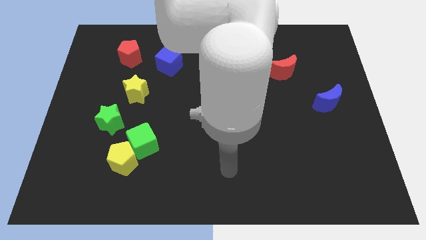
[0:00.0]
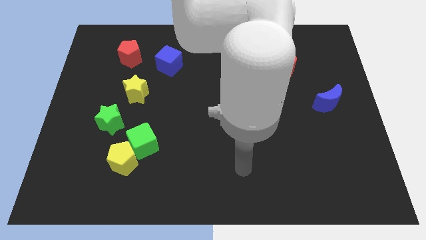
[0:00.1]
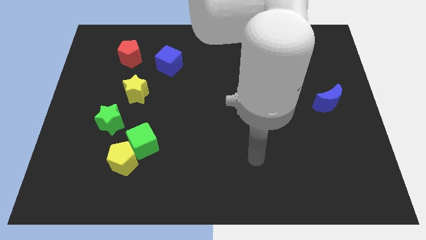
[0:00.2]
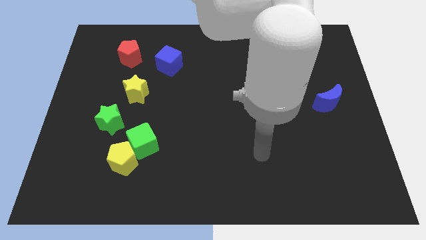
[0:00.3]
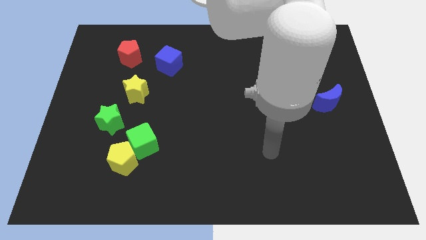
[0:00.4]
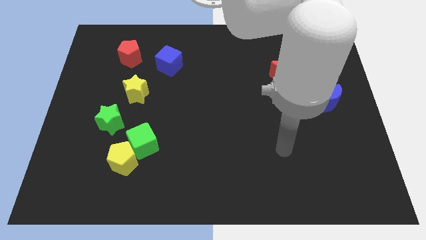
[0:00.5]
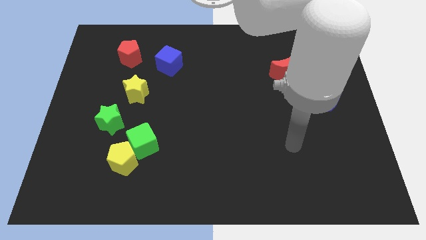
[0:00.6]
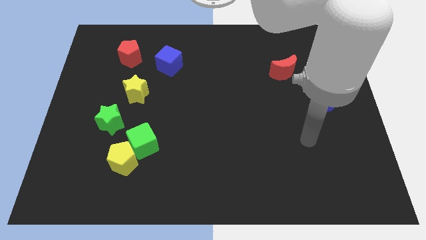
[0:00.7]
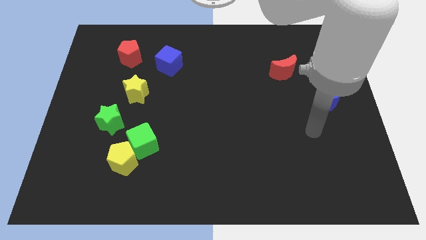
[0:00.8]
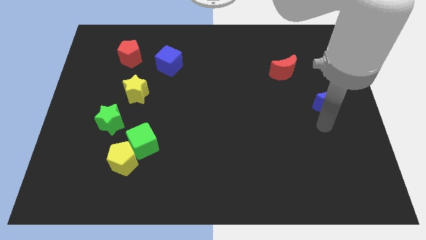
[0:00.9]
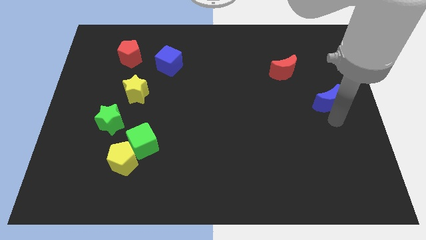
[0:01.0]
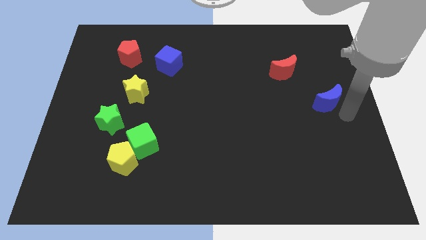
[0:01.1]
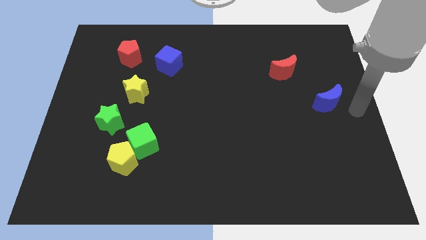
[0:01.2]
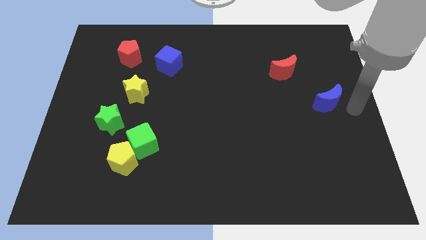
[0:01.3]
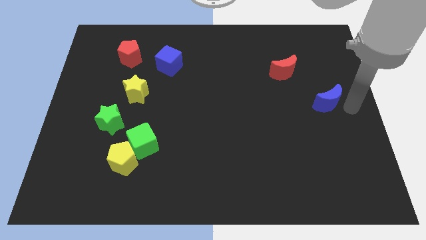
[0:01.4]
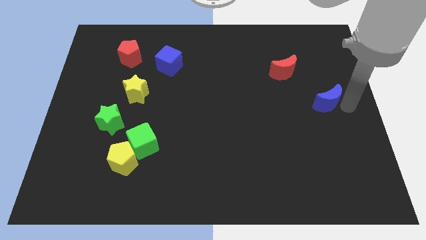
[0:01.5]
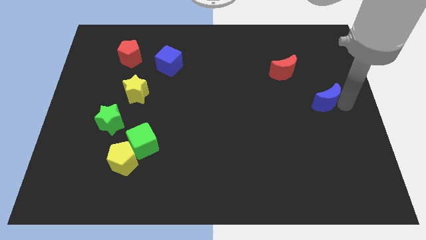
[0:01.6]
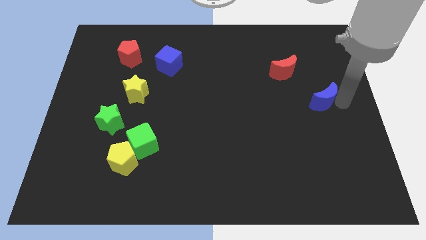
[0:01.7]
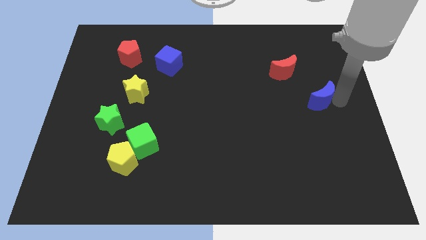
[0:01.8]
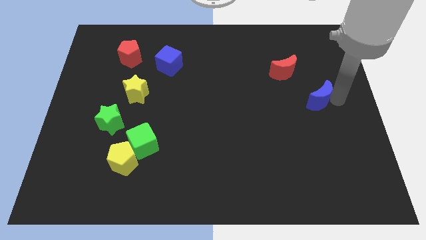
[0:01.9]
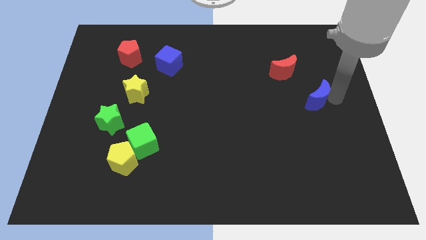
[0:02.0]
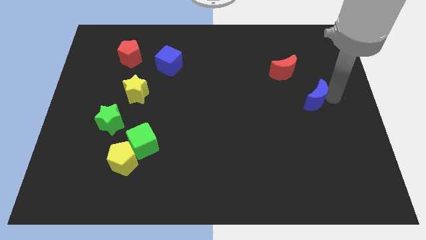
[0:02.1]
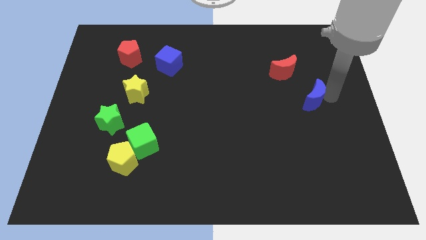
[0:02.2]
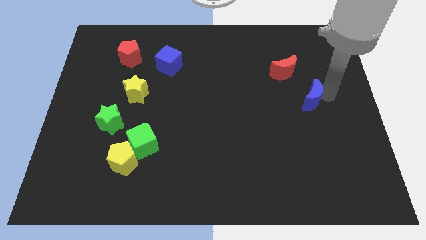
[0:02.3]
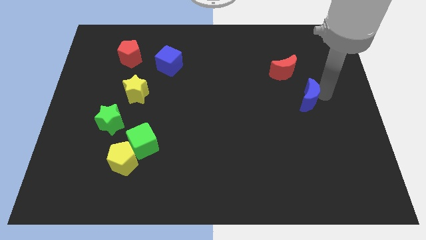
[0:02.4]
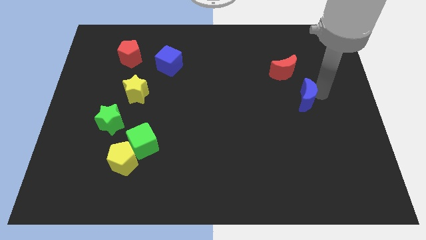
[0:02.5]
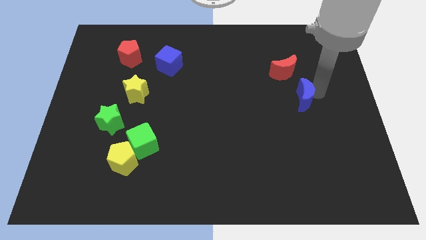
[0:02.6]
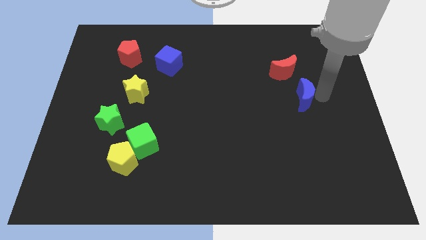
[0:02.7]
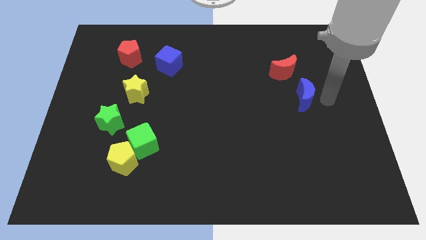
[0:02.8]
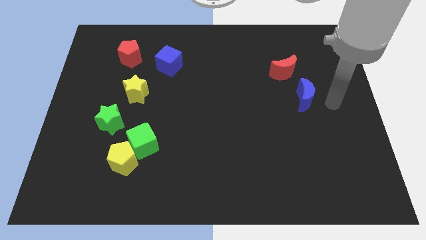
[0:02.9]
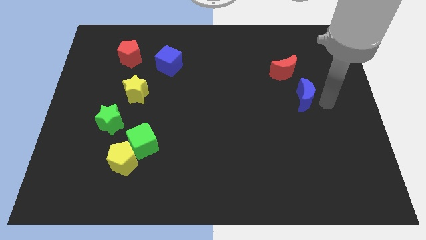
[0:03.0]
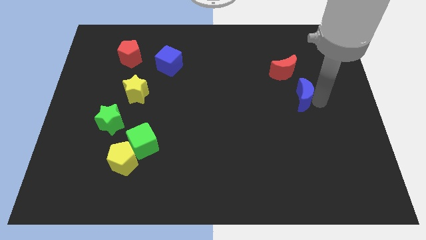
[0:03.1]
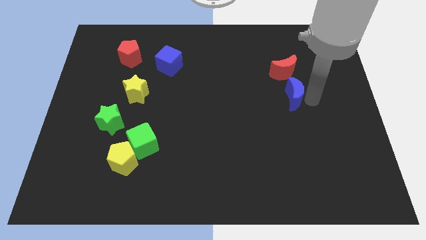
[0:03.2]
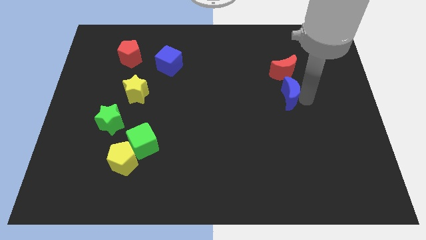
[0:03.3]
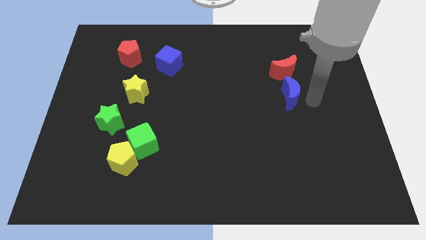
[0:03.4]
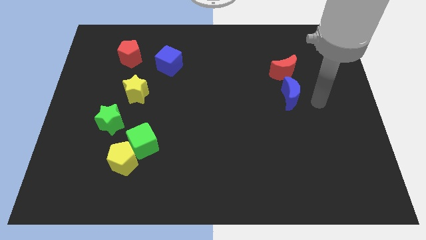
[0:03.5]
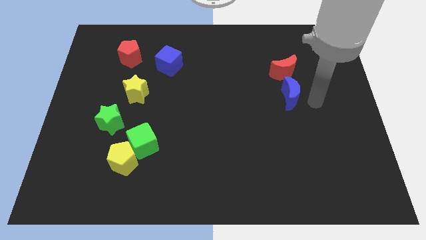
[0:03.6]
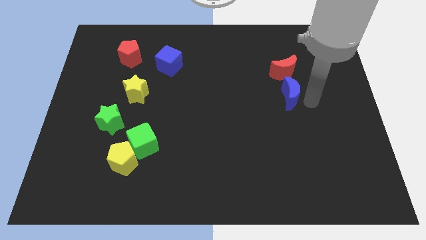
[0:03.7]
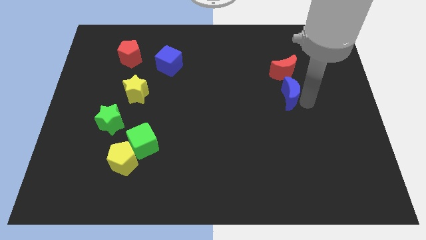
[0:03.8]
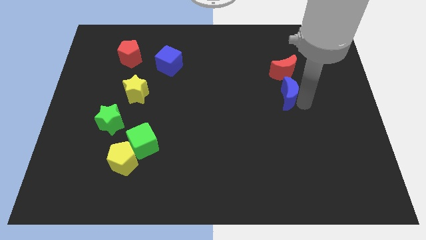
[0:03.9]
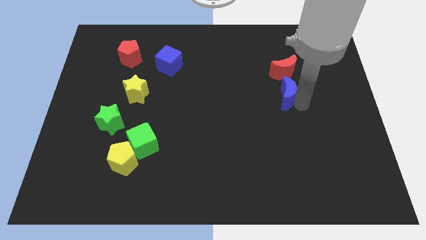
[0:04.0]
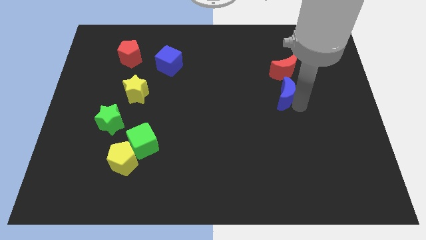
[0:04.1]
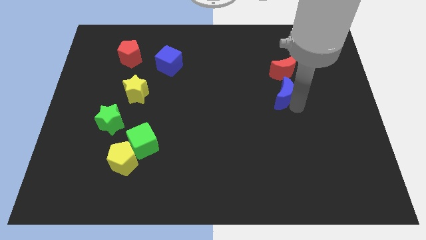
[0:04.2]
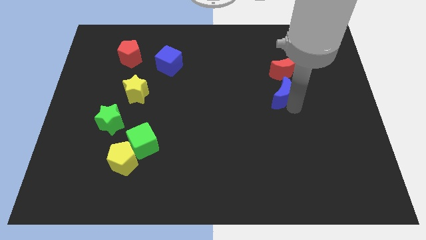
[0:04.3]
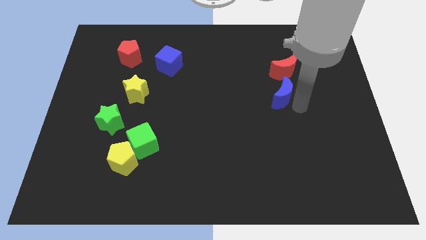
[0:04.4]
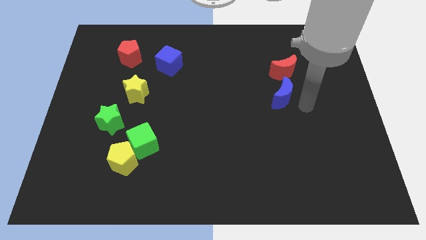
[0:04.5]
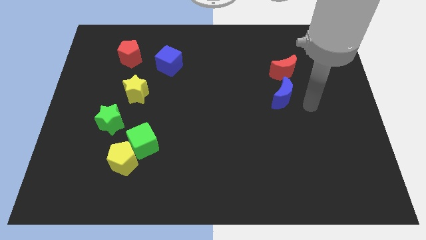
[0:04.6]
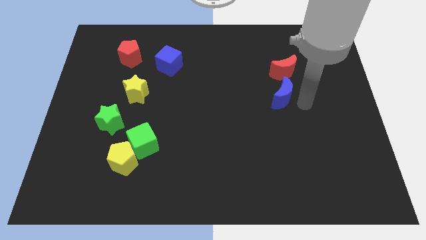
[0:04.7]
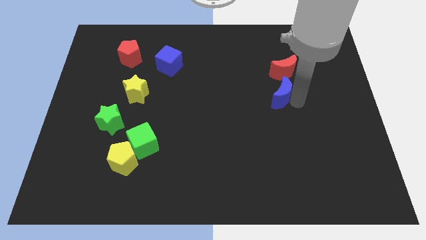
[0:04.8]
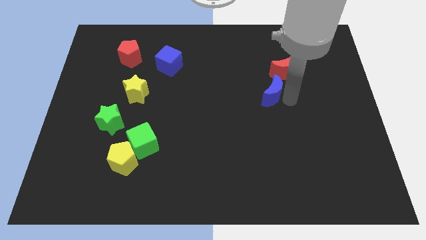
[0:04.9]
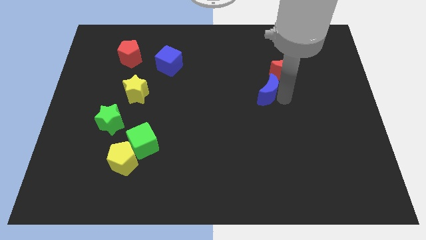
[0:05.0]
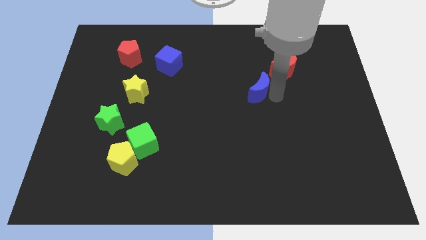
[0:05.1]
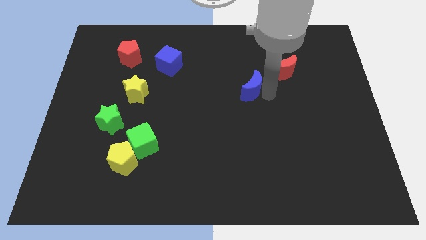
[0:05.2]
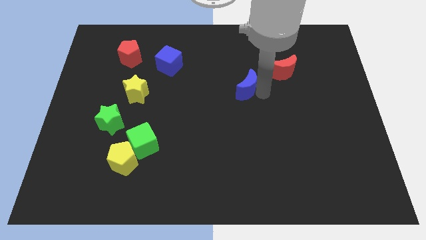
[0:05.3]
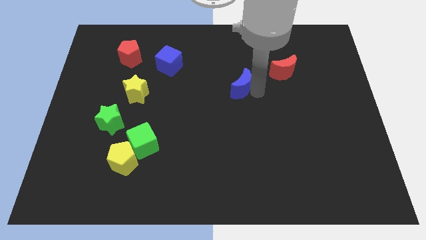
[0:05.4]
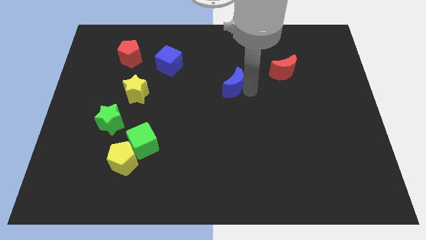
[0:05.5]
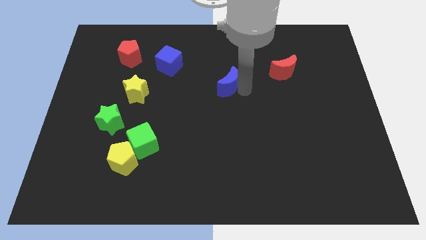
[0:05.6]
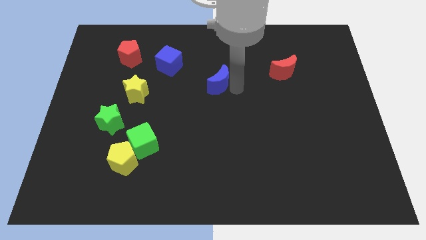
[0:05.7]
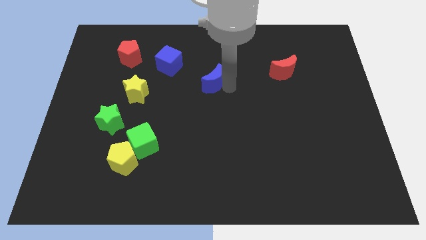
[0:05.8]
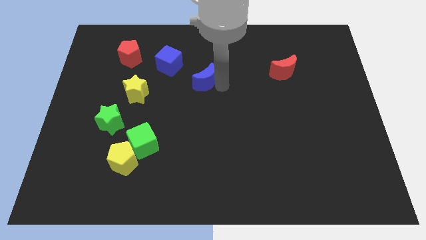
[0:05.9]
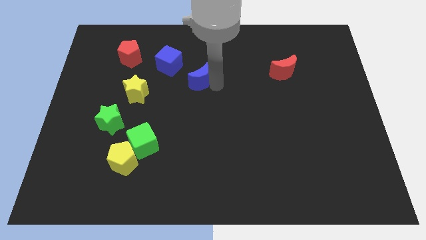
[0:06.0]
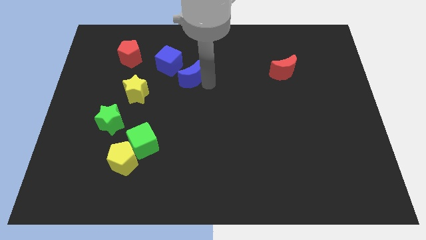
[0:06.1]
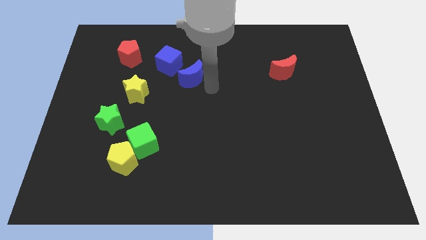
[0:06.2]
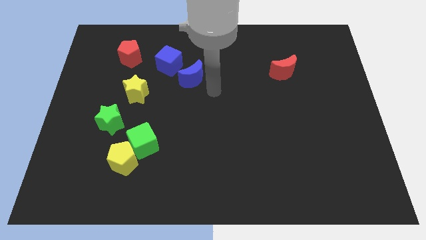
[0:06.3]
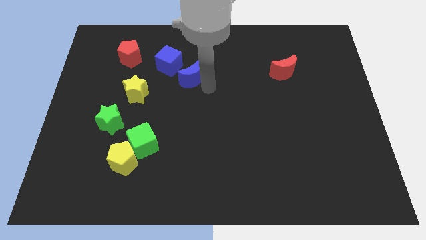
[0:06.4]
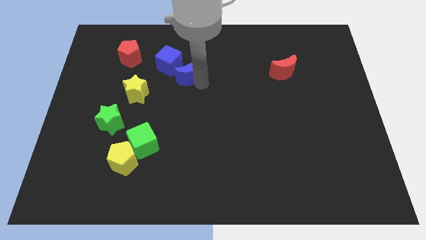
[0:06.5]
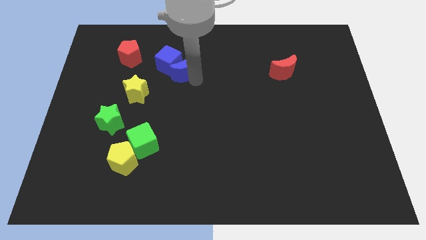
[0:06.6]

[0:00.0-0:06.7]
slide the blue moon to the blue cube

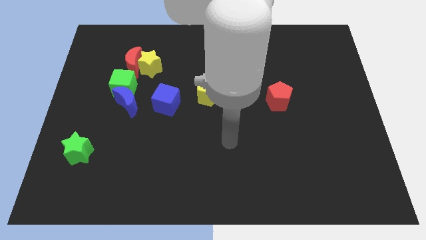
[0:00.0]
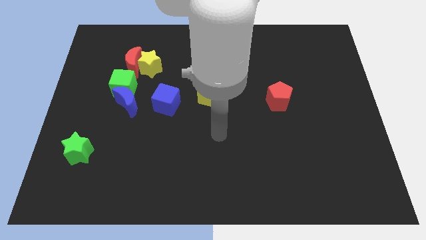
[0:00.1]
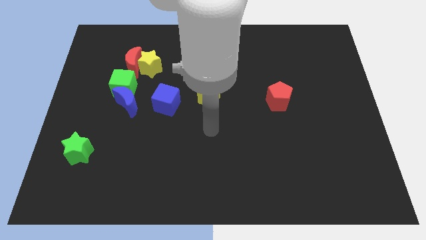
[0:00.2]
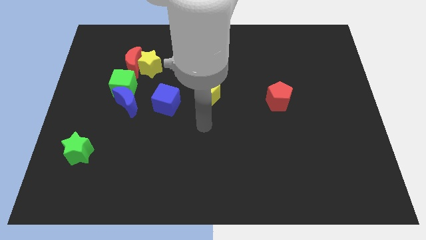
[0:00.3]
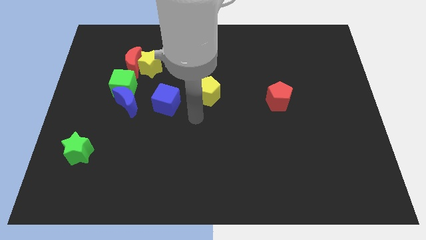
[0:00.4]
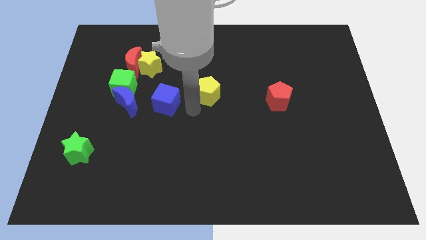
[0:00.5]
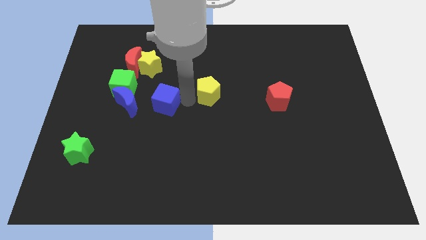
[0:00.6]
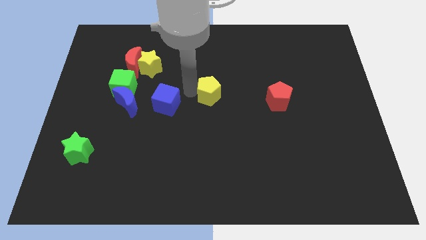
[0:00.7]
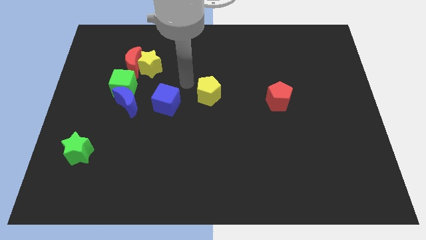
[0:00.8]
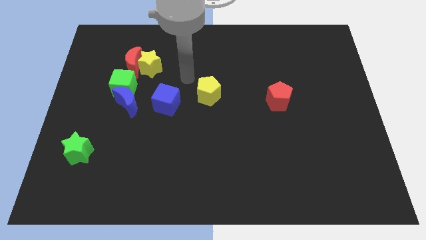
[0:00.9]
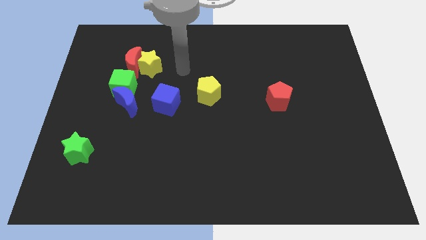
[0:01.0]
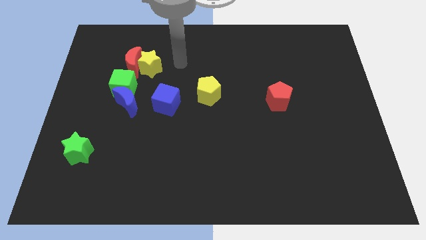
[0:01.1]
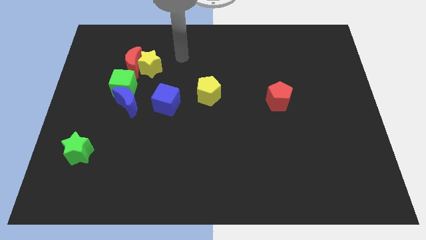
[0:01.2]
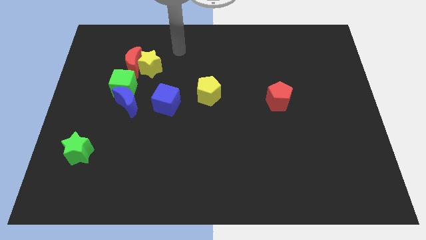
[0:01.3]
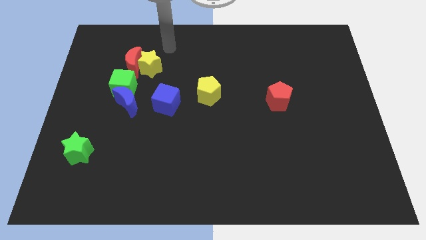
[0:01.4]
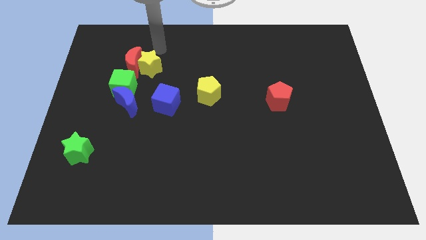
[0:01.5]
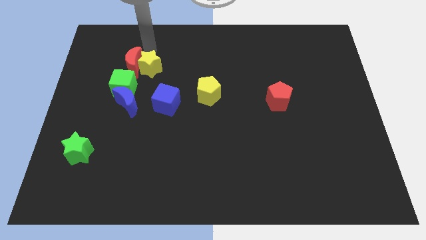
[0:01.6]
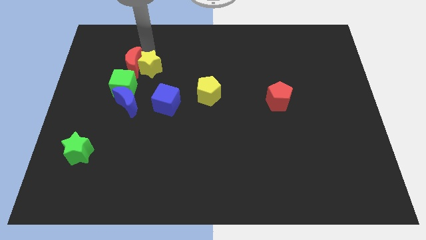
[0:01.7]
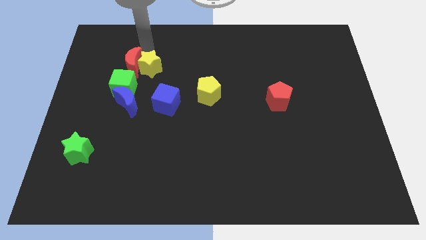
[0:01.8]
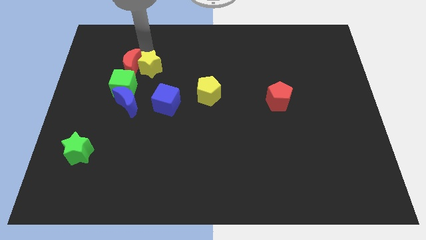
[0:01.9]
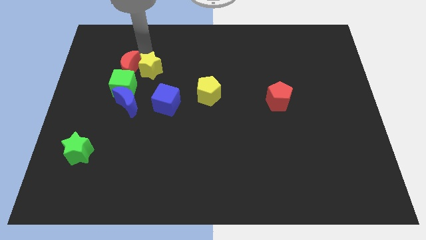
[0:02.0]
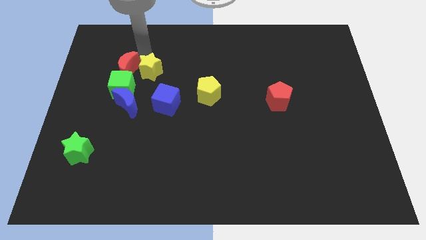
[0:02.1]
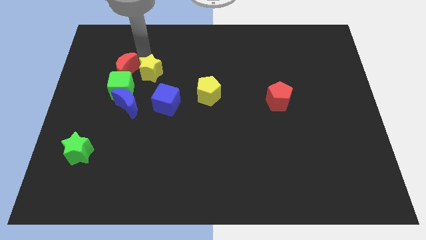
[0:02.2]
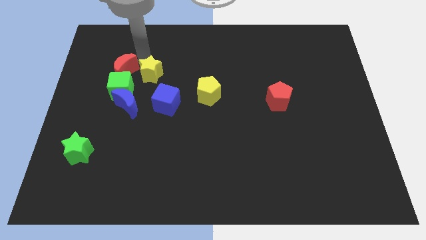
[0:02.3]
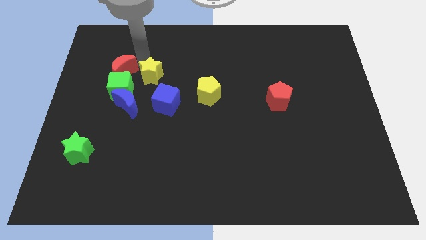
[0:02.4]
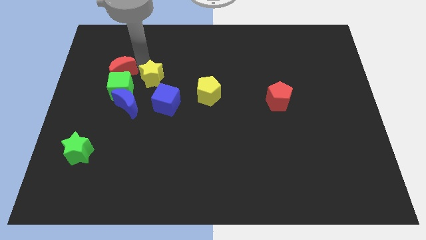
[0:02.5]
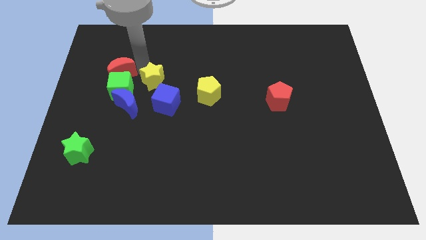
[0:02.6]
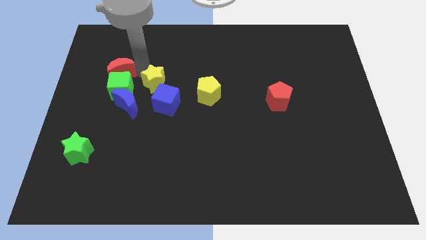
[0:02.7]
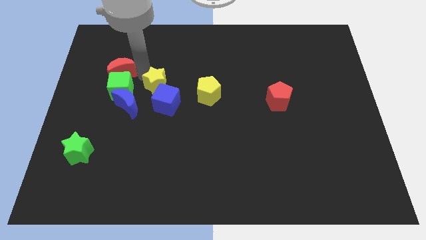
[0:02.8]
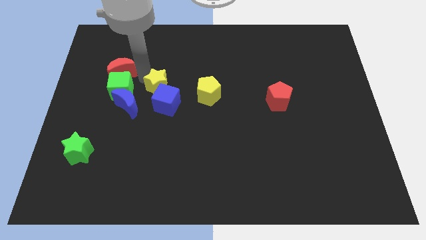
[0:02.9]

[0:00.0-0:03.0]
put the yellow star next to the blue cube
